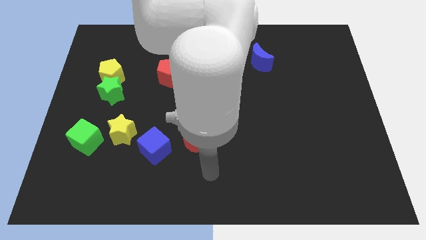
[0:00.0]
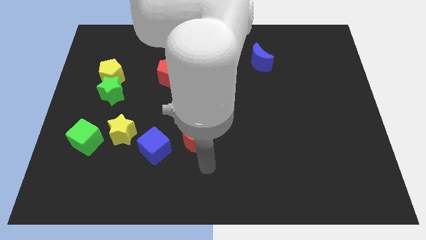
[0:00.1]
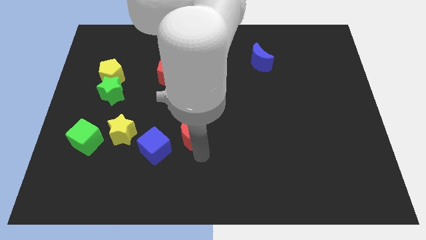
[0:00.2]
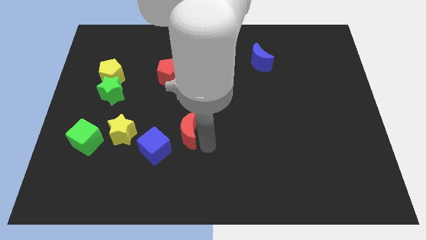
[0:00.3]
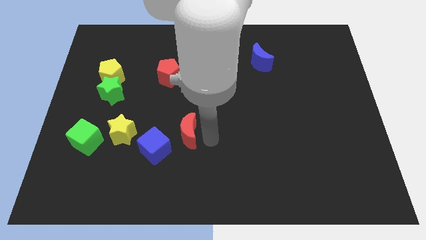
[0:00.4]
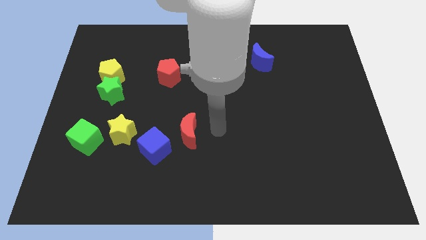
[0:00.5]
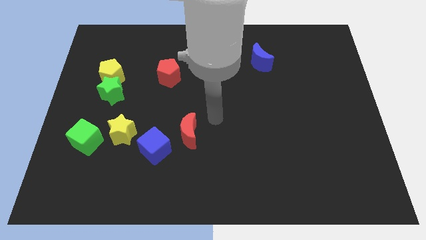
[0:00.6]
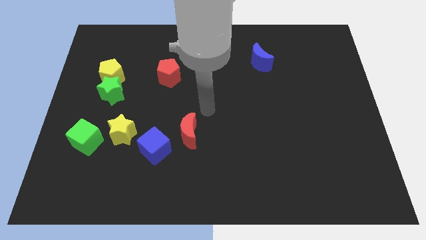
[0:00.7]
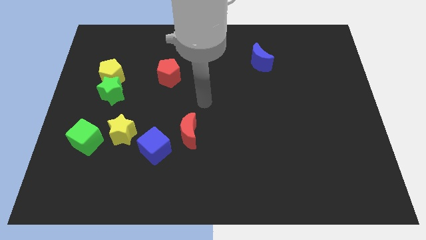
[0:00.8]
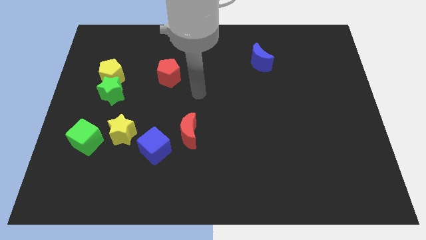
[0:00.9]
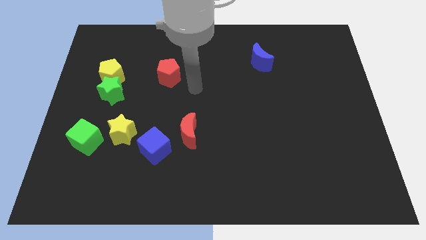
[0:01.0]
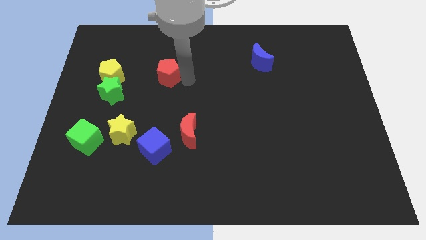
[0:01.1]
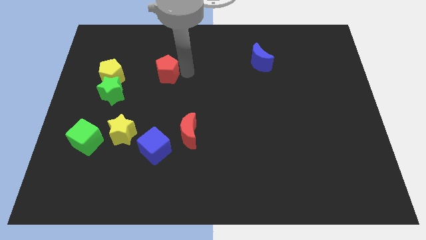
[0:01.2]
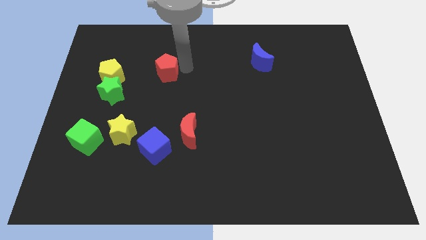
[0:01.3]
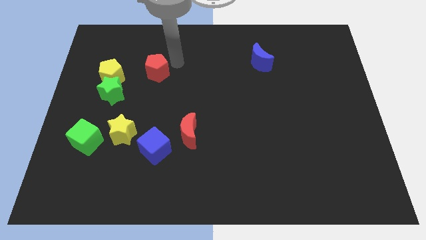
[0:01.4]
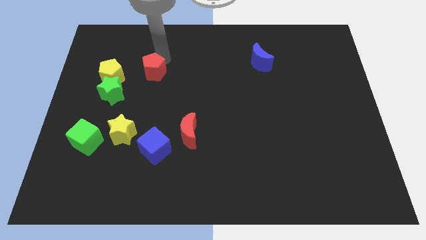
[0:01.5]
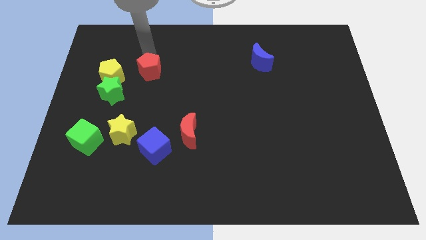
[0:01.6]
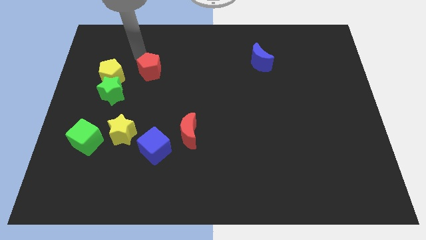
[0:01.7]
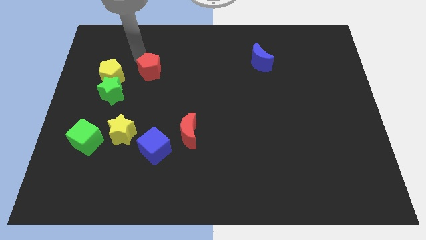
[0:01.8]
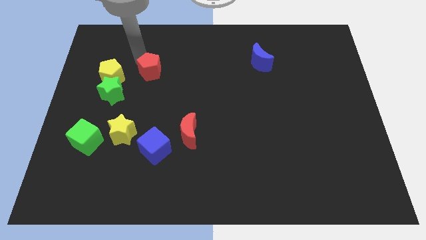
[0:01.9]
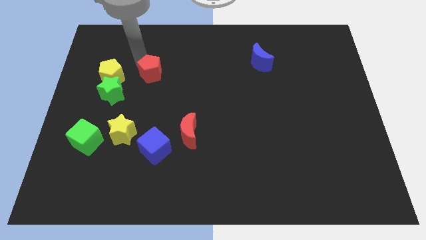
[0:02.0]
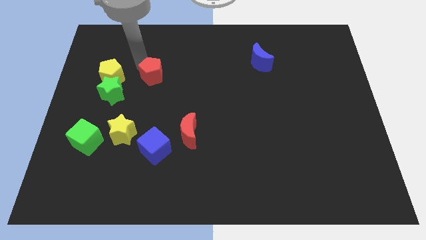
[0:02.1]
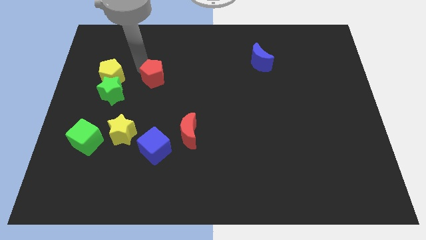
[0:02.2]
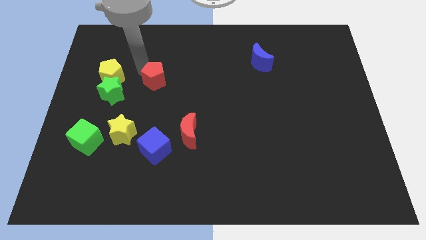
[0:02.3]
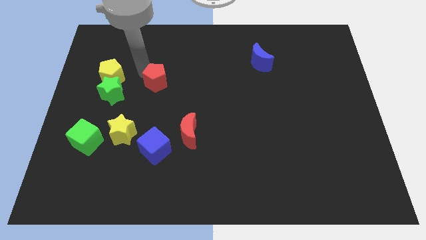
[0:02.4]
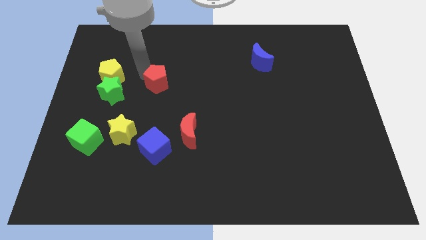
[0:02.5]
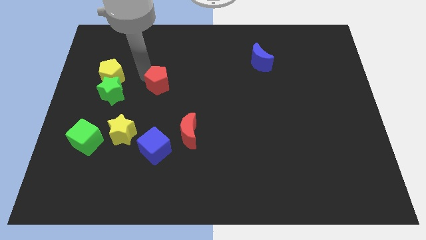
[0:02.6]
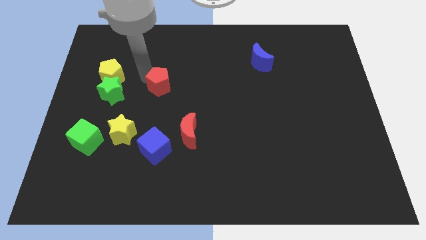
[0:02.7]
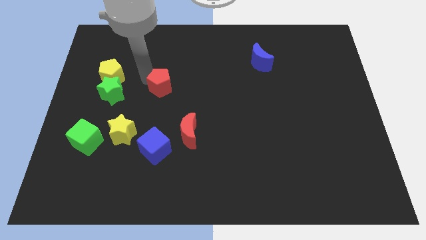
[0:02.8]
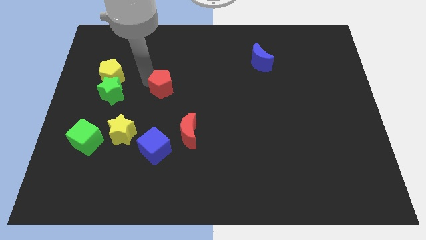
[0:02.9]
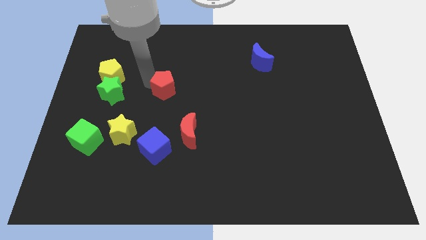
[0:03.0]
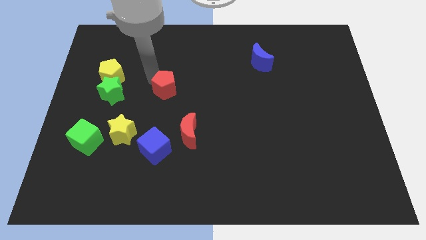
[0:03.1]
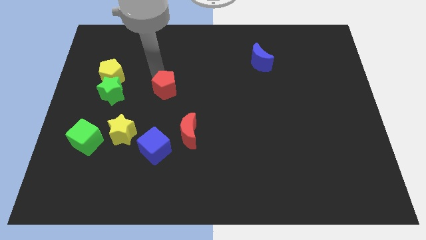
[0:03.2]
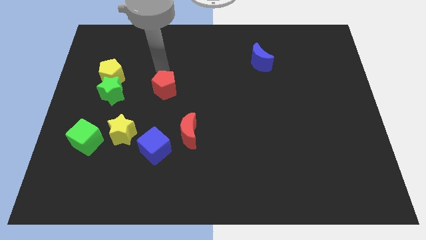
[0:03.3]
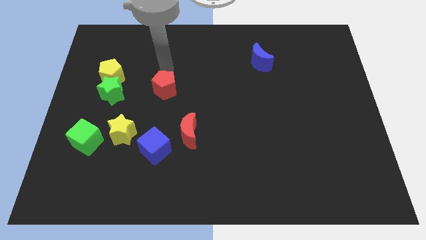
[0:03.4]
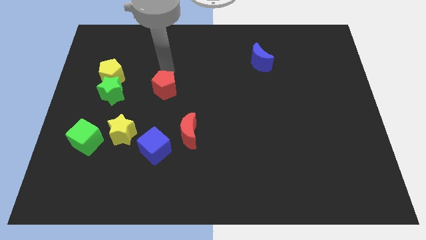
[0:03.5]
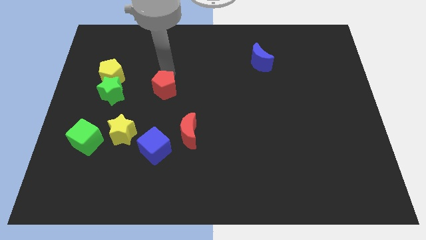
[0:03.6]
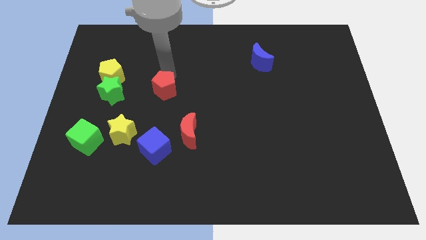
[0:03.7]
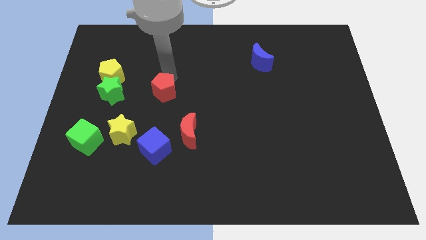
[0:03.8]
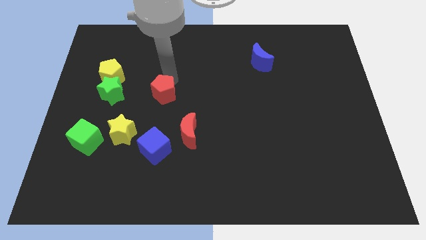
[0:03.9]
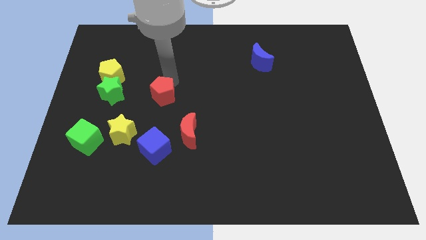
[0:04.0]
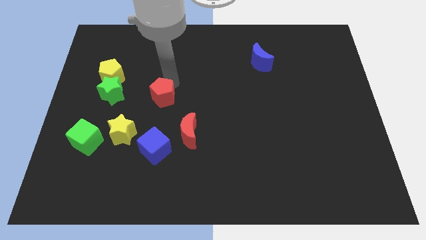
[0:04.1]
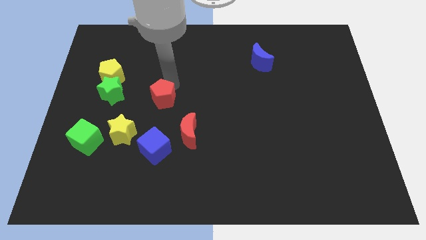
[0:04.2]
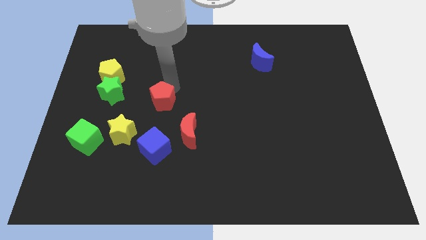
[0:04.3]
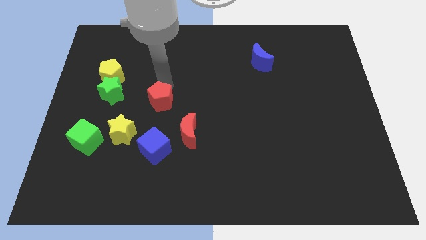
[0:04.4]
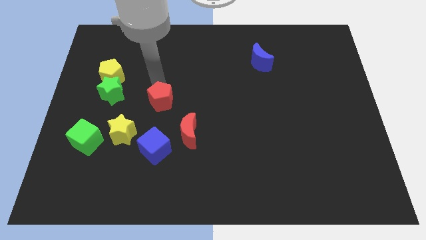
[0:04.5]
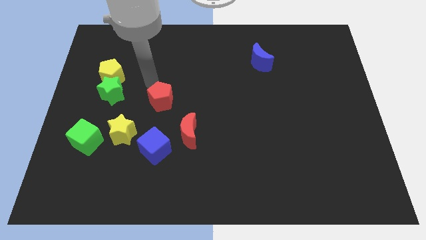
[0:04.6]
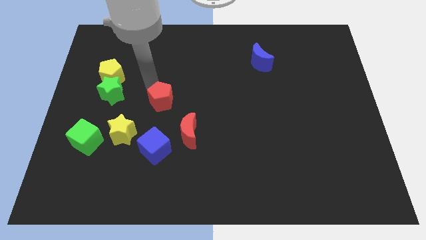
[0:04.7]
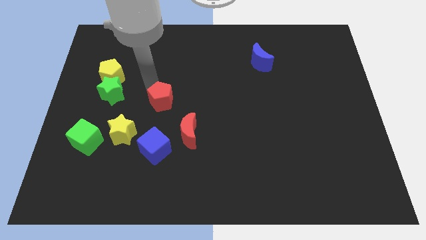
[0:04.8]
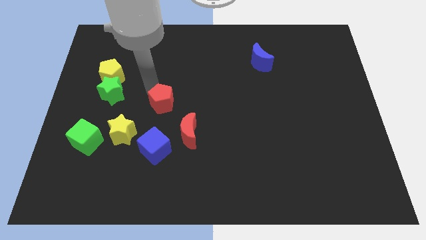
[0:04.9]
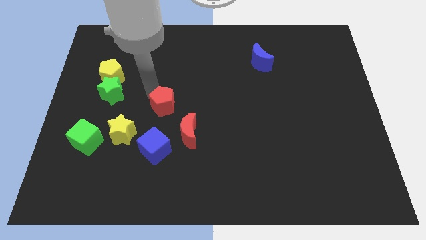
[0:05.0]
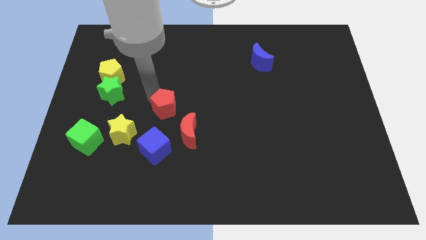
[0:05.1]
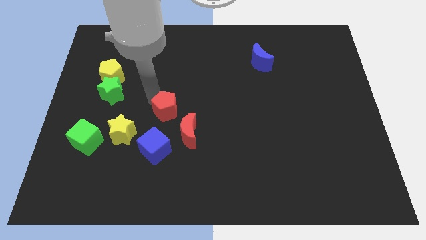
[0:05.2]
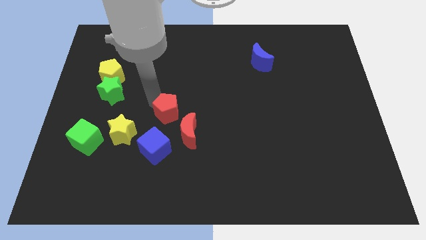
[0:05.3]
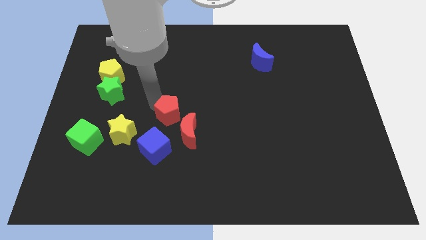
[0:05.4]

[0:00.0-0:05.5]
slide the red pentagon to the top right side of the blue cube

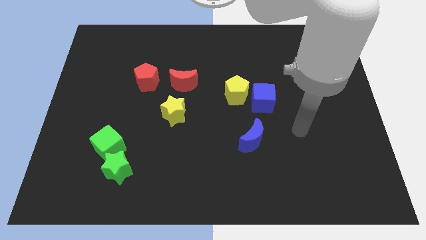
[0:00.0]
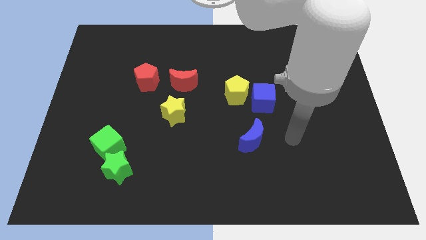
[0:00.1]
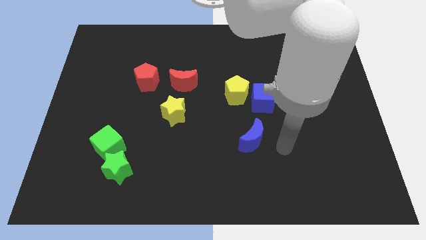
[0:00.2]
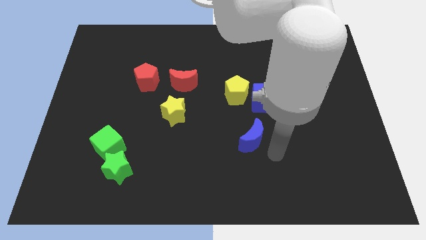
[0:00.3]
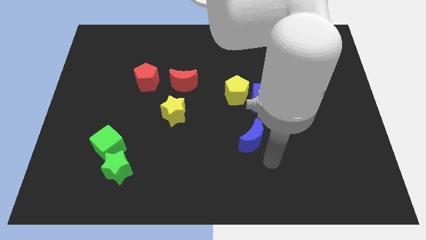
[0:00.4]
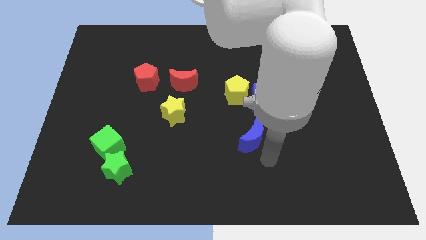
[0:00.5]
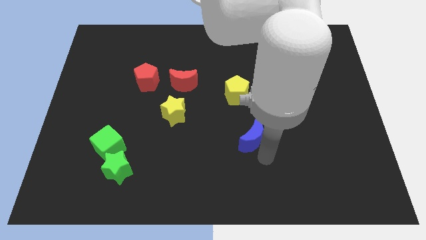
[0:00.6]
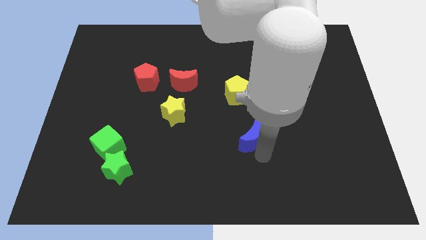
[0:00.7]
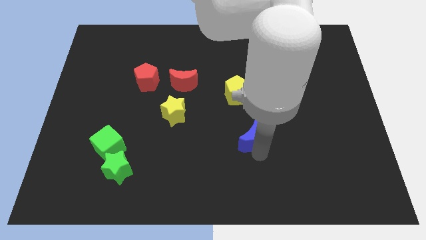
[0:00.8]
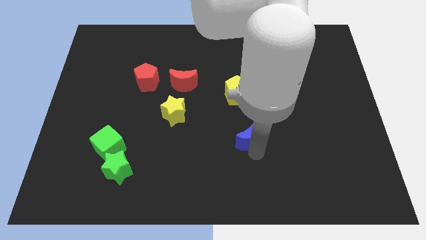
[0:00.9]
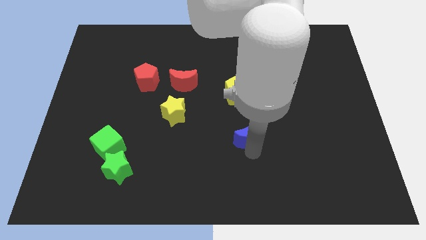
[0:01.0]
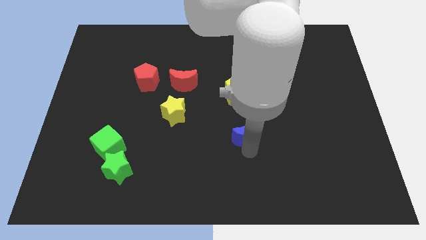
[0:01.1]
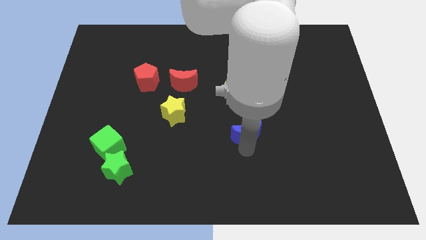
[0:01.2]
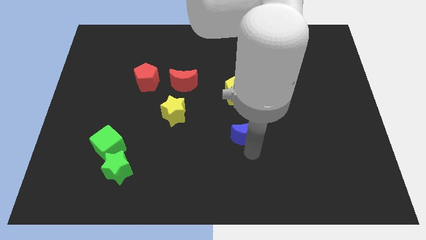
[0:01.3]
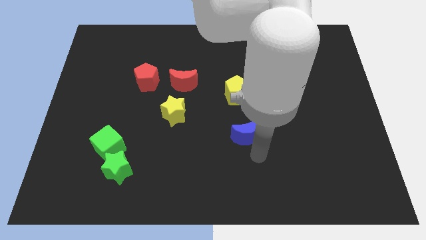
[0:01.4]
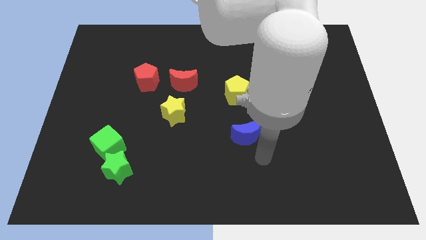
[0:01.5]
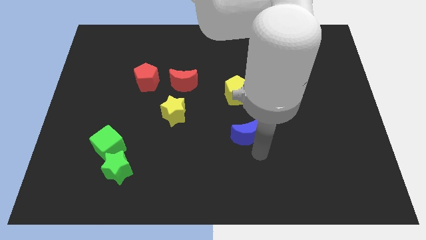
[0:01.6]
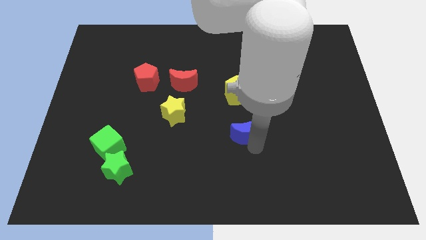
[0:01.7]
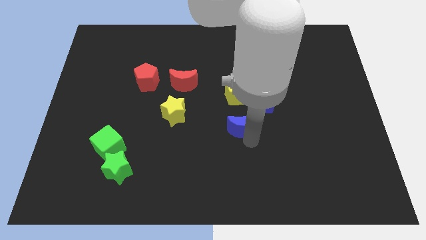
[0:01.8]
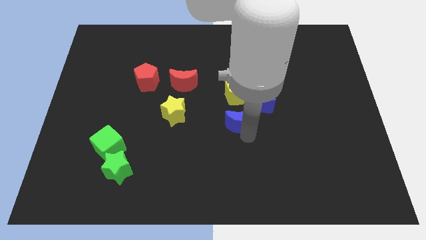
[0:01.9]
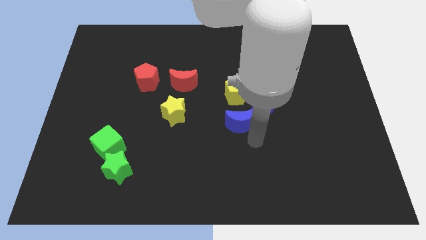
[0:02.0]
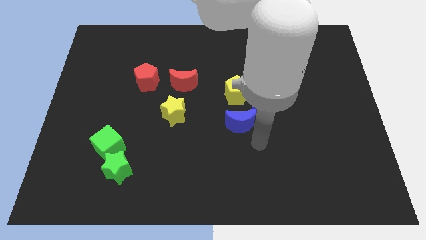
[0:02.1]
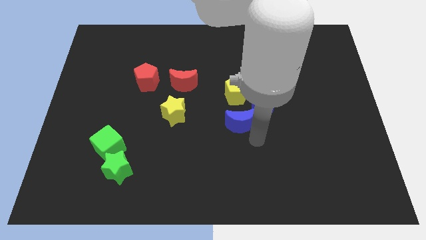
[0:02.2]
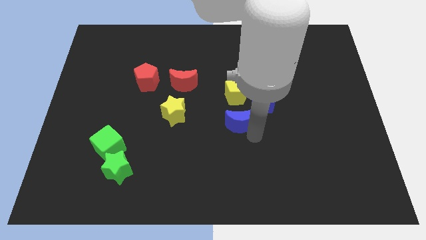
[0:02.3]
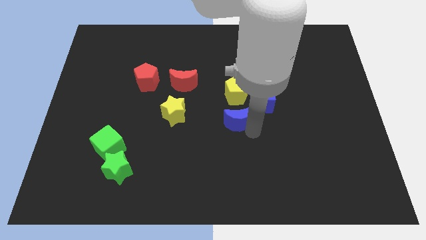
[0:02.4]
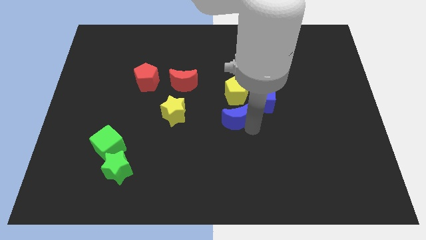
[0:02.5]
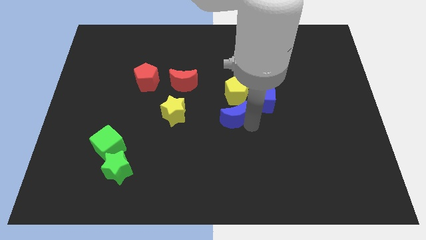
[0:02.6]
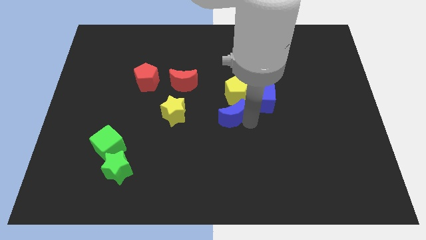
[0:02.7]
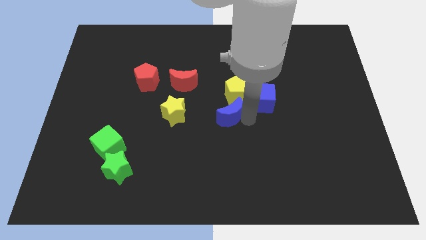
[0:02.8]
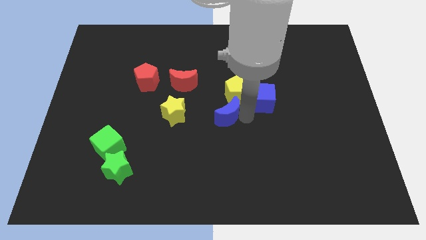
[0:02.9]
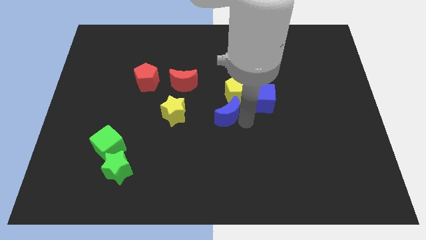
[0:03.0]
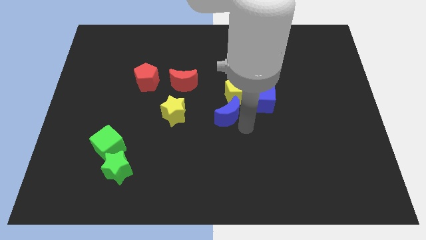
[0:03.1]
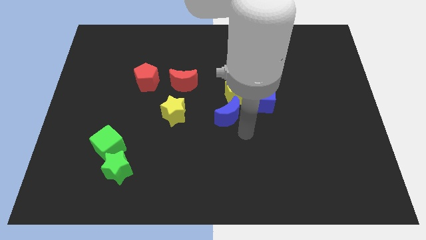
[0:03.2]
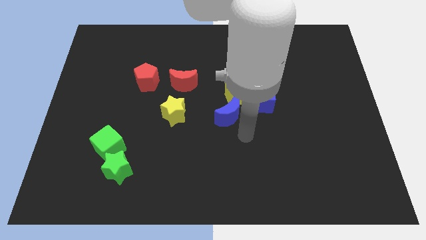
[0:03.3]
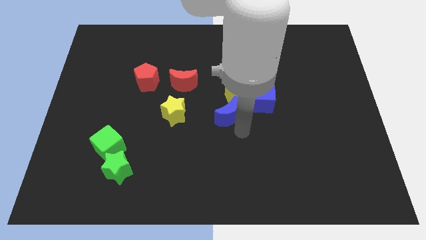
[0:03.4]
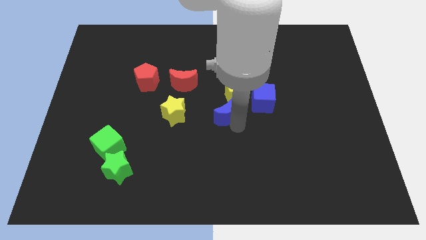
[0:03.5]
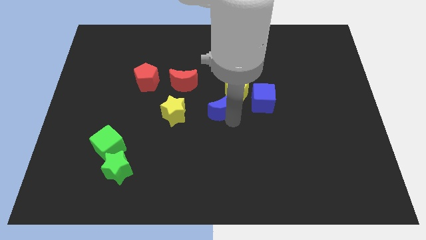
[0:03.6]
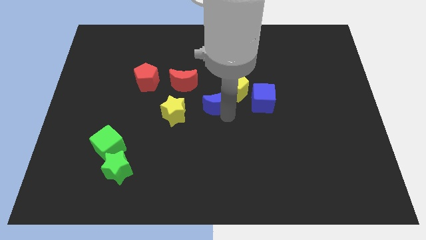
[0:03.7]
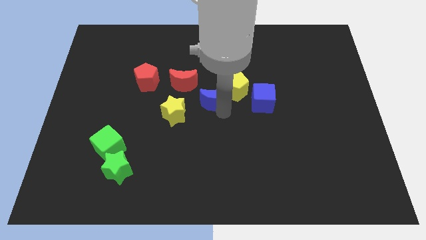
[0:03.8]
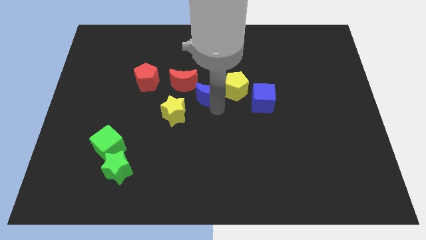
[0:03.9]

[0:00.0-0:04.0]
put the blue moon to the right of the red moon
